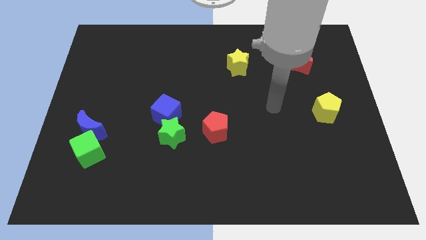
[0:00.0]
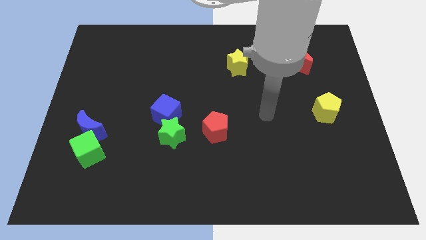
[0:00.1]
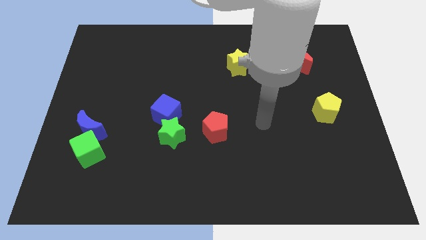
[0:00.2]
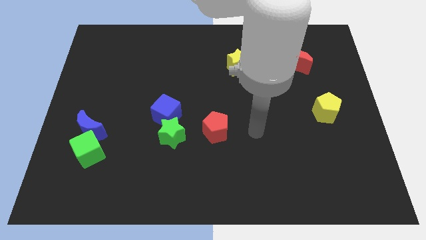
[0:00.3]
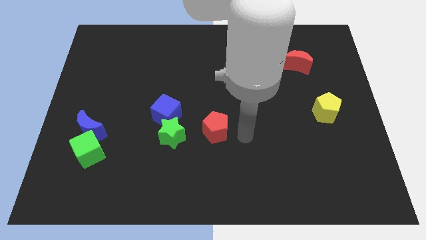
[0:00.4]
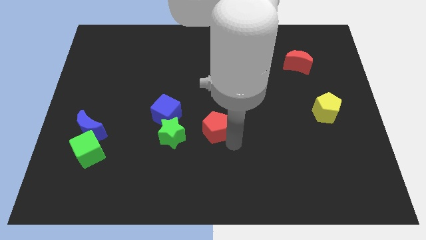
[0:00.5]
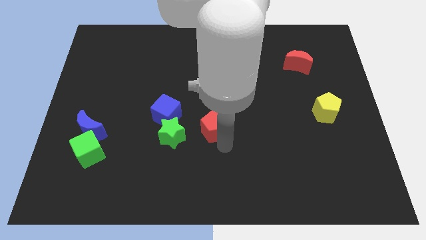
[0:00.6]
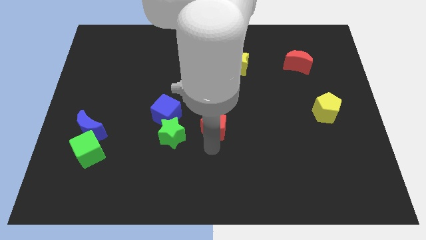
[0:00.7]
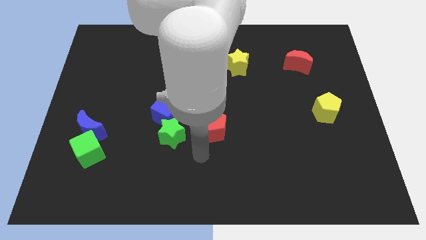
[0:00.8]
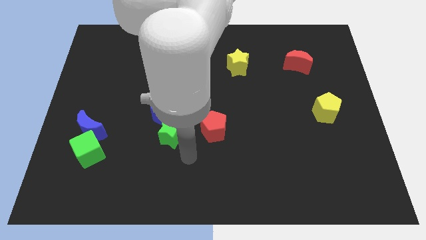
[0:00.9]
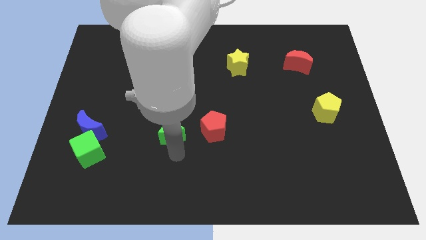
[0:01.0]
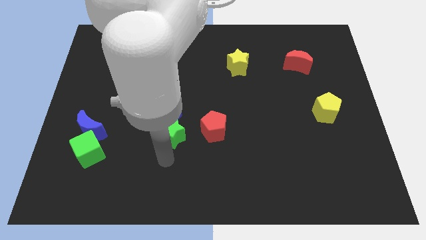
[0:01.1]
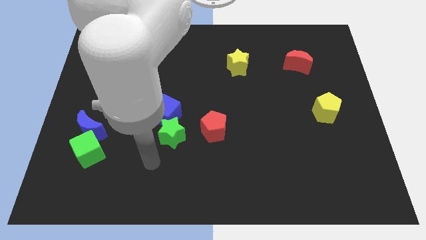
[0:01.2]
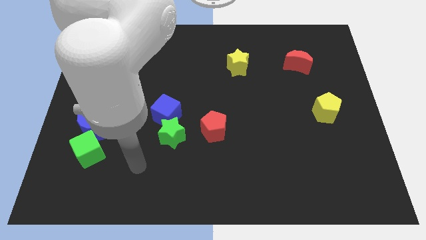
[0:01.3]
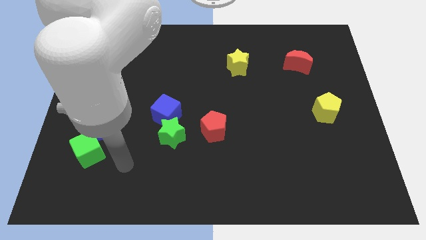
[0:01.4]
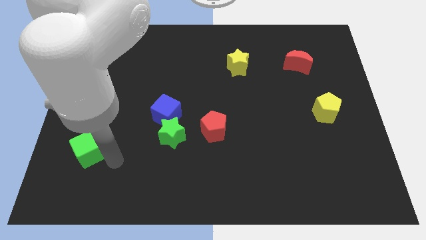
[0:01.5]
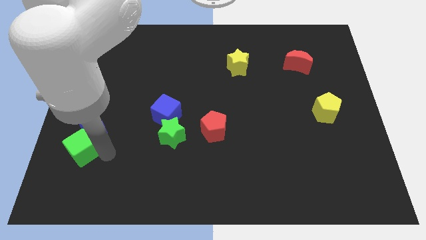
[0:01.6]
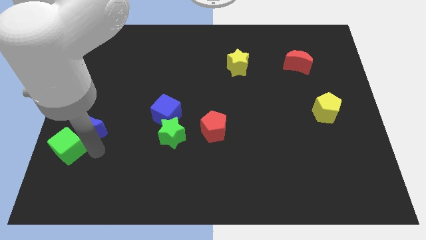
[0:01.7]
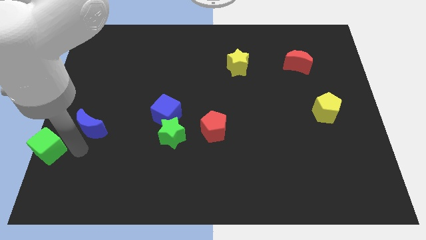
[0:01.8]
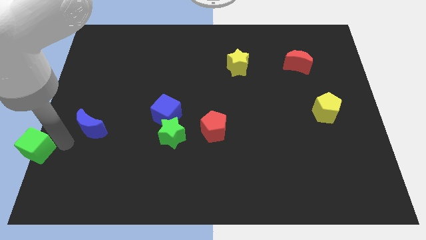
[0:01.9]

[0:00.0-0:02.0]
pull the blue moon apart from the green cube

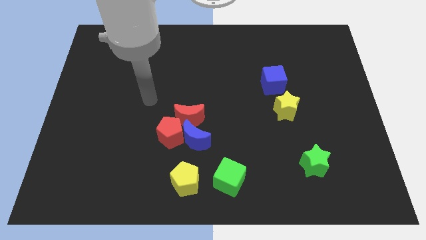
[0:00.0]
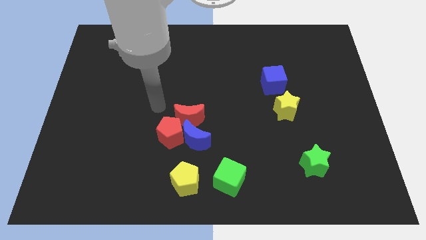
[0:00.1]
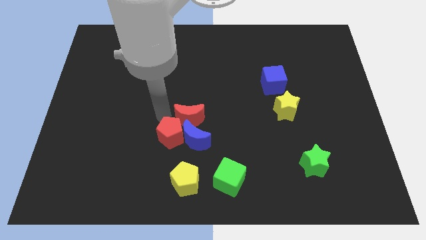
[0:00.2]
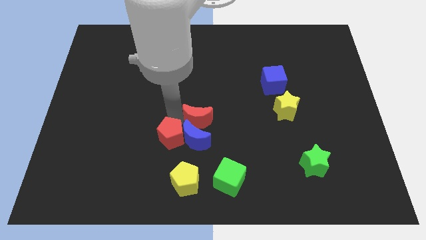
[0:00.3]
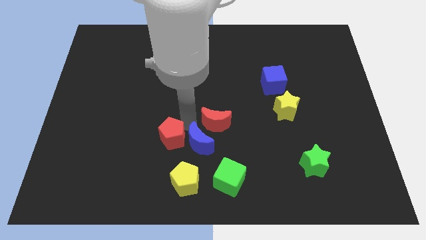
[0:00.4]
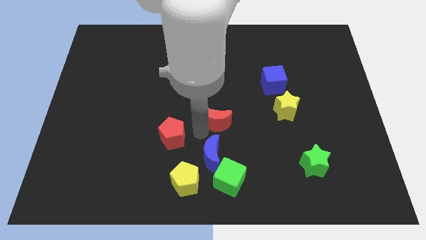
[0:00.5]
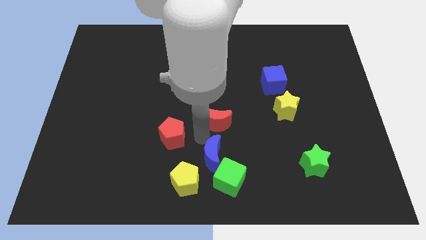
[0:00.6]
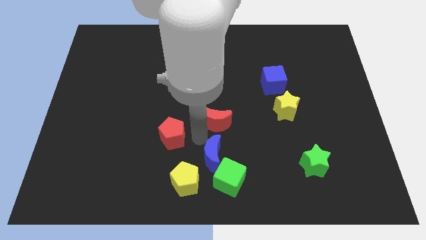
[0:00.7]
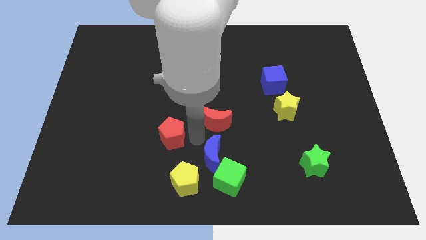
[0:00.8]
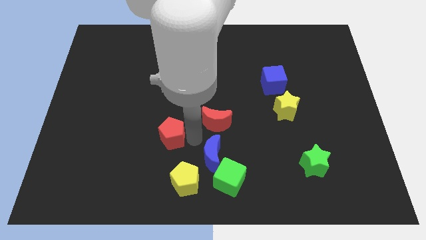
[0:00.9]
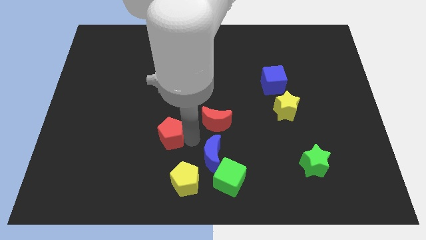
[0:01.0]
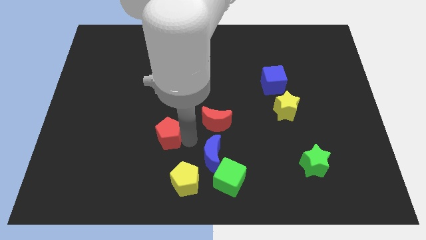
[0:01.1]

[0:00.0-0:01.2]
pull the red pentagon apart from the blue moon and red moon

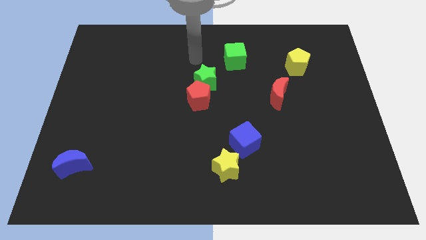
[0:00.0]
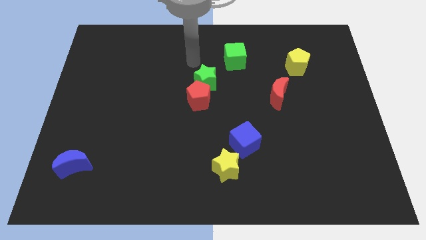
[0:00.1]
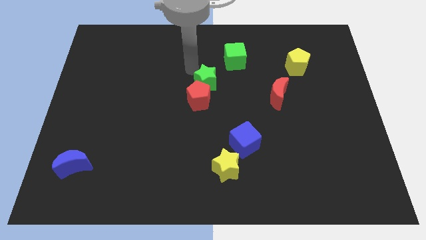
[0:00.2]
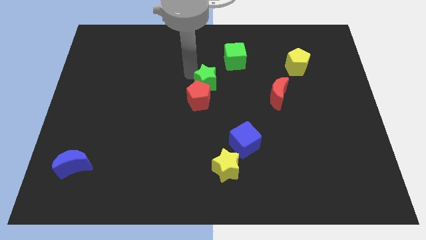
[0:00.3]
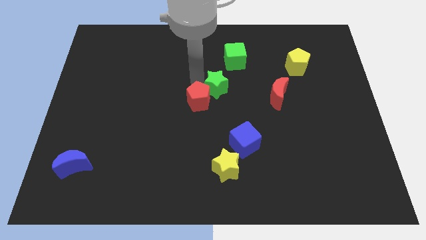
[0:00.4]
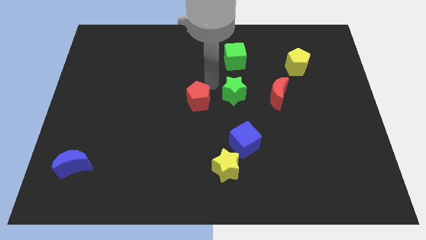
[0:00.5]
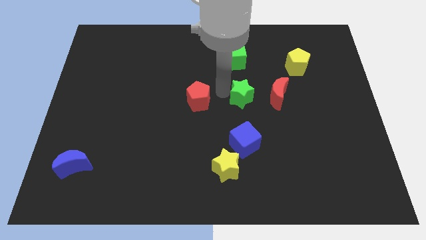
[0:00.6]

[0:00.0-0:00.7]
separate the red pentagon from the green star

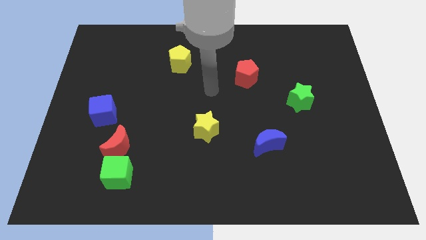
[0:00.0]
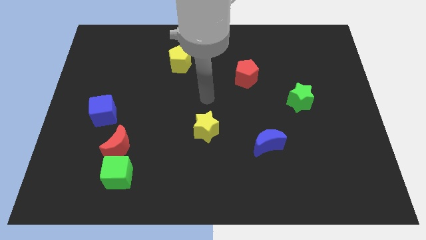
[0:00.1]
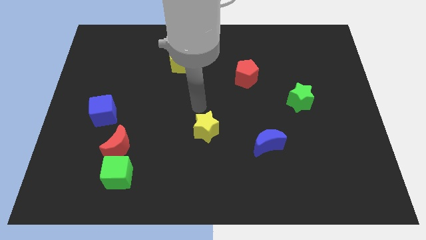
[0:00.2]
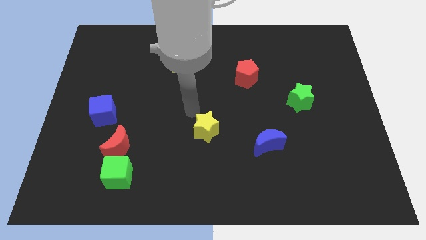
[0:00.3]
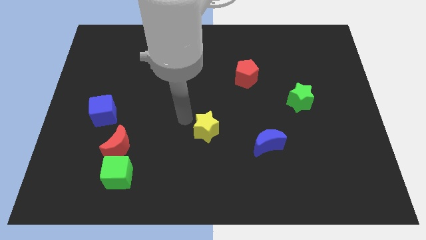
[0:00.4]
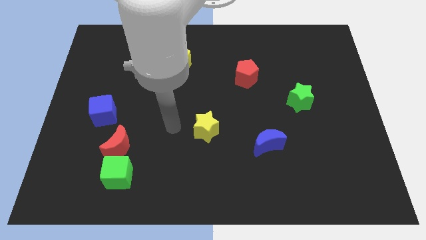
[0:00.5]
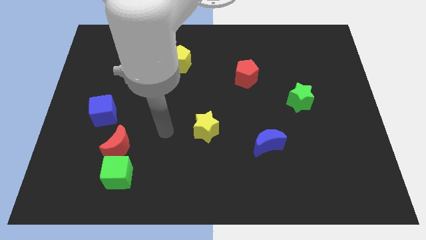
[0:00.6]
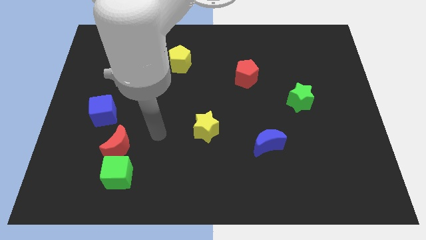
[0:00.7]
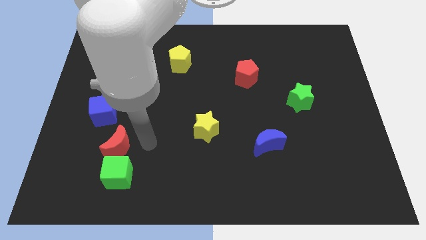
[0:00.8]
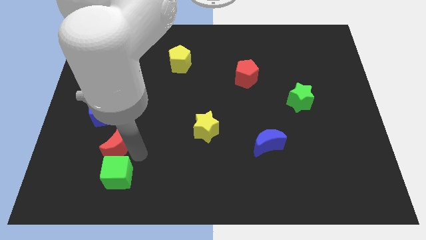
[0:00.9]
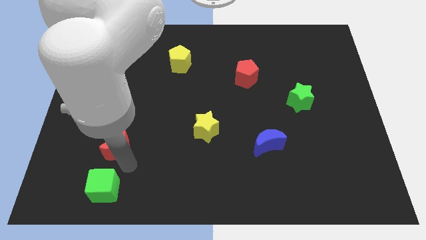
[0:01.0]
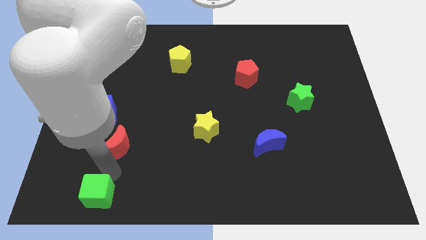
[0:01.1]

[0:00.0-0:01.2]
pull the red moon apart from the green cube

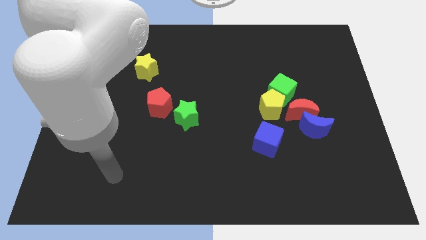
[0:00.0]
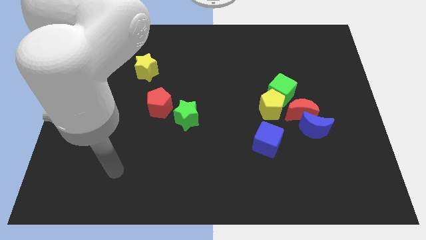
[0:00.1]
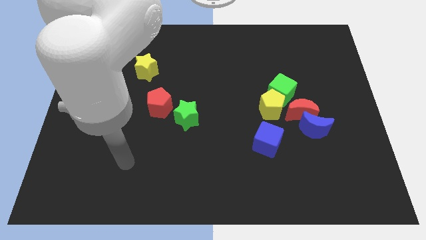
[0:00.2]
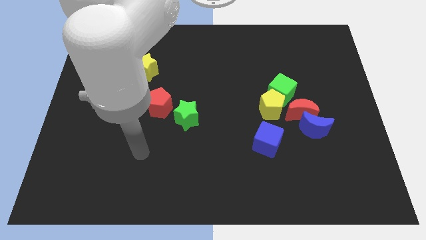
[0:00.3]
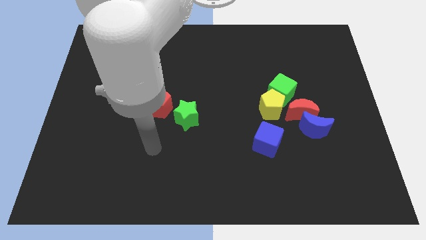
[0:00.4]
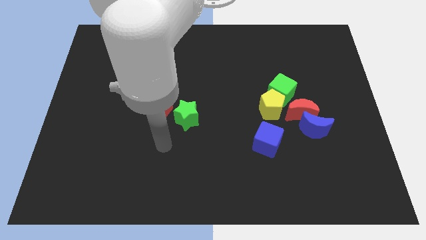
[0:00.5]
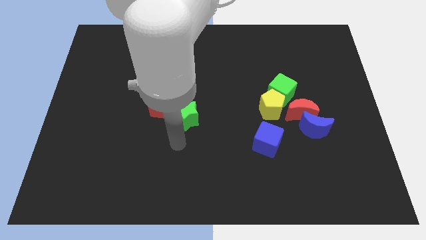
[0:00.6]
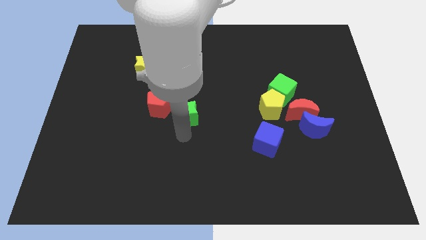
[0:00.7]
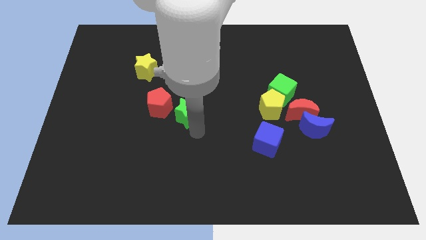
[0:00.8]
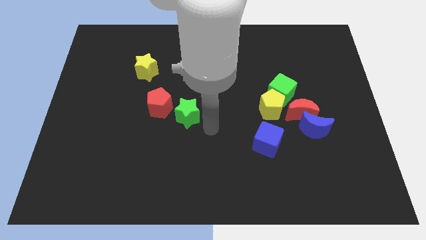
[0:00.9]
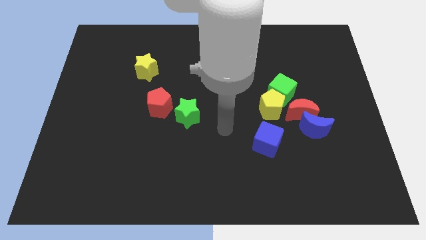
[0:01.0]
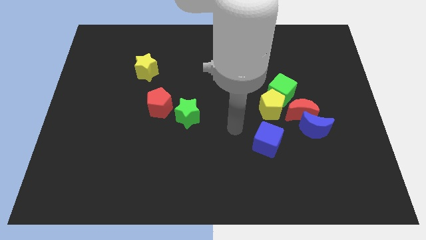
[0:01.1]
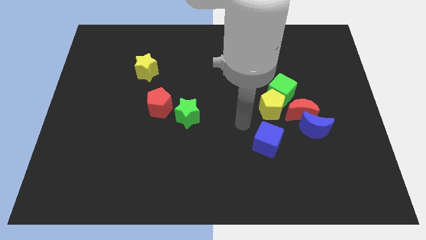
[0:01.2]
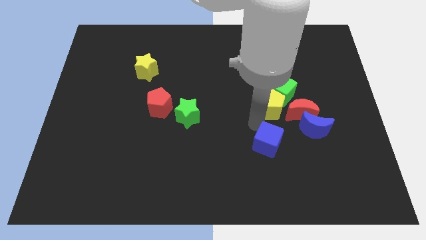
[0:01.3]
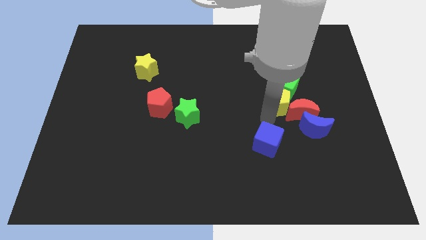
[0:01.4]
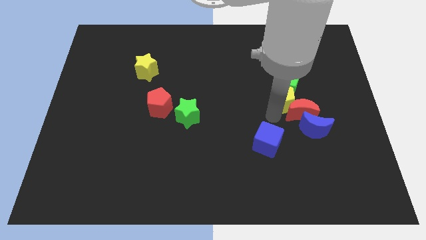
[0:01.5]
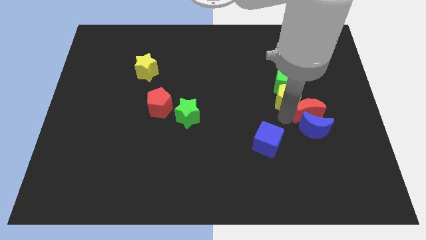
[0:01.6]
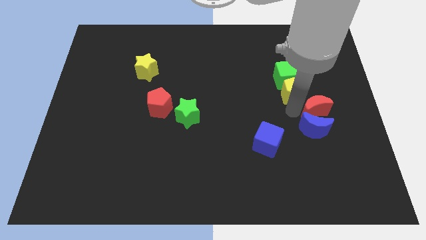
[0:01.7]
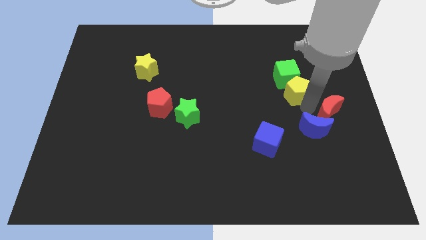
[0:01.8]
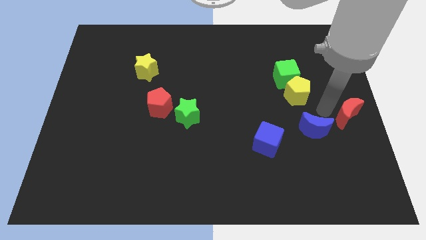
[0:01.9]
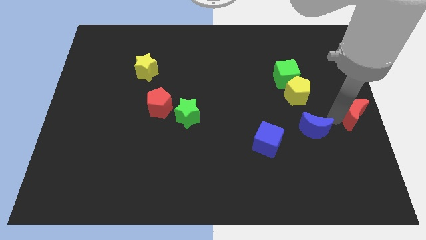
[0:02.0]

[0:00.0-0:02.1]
pull the blue moon apart from the red moon

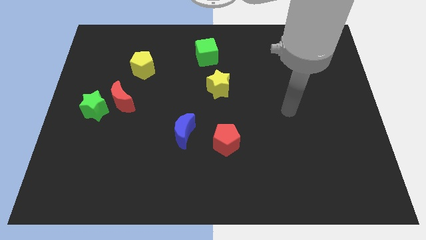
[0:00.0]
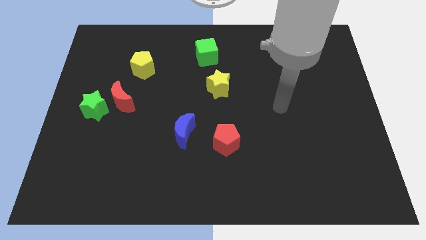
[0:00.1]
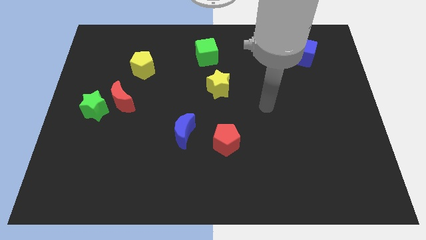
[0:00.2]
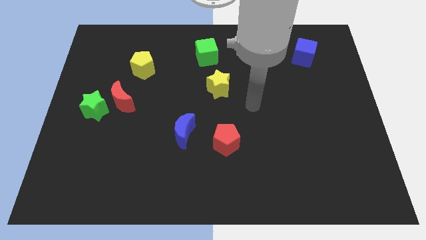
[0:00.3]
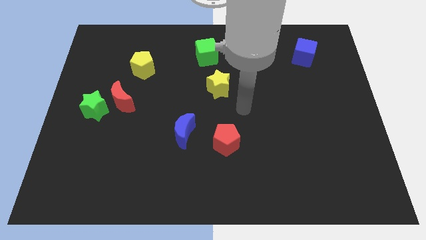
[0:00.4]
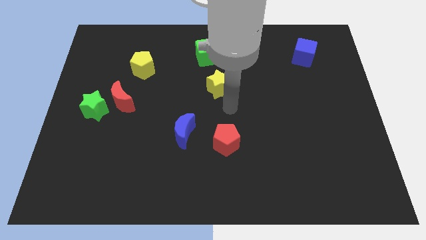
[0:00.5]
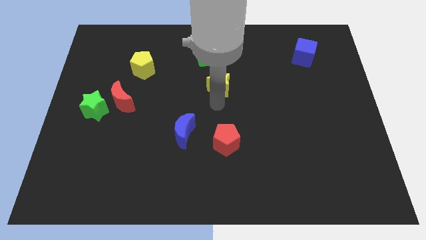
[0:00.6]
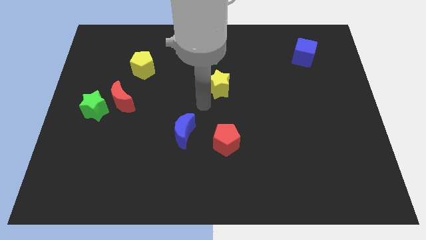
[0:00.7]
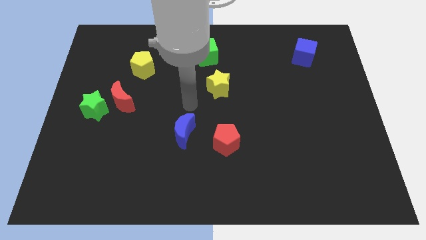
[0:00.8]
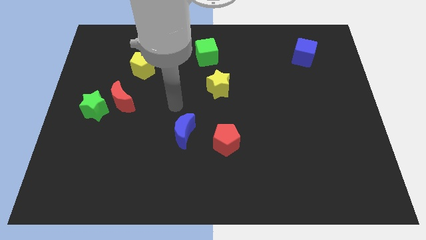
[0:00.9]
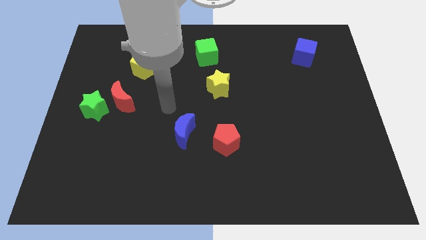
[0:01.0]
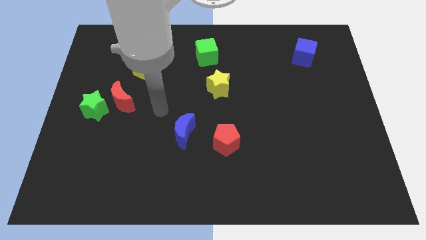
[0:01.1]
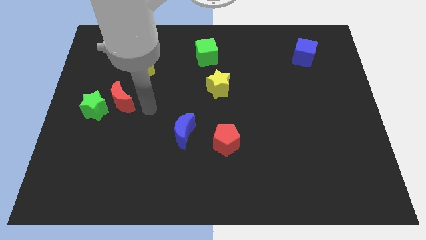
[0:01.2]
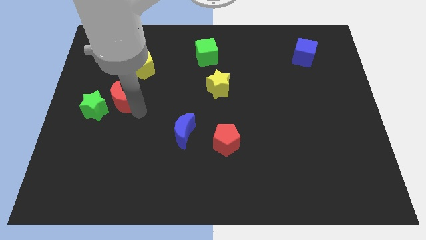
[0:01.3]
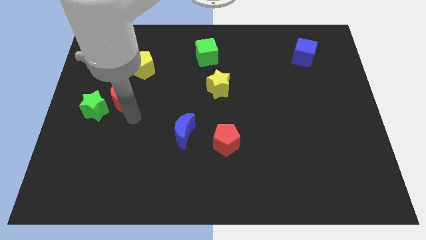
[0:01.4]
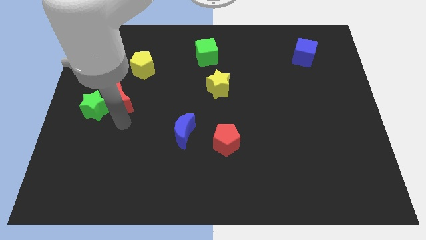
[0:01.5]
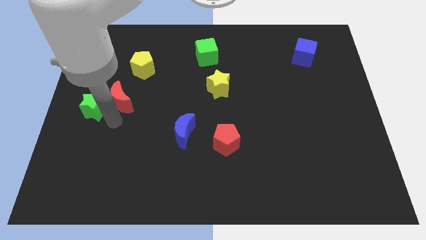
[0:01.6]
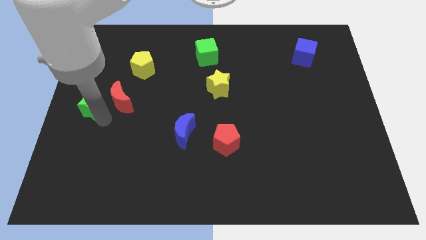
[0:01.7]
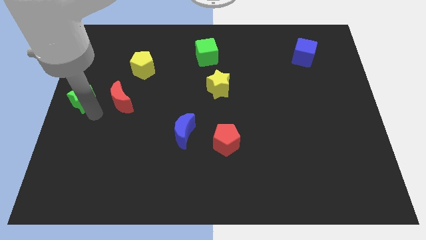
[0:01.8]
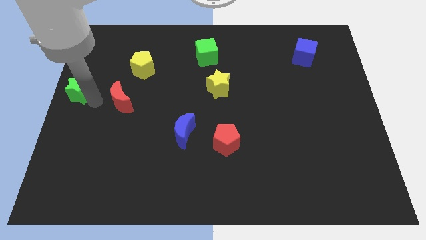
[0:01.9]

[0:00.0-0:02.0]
move the red moon away from the green star
